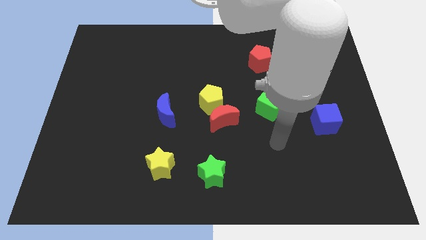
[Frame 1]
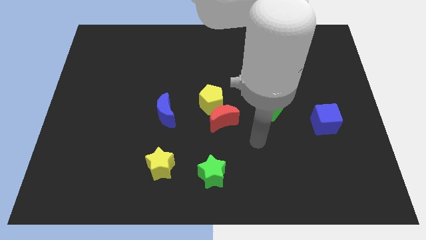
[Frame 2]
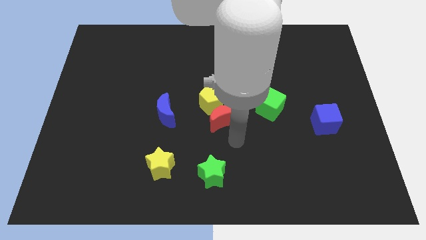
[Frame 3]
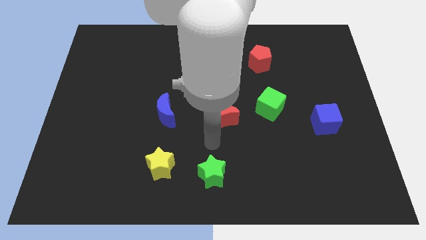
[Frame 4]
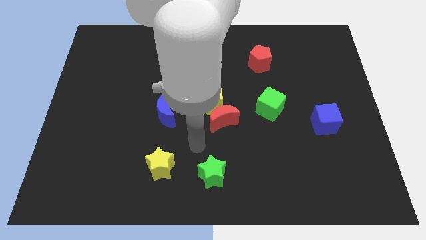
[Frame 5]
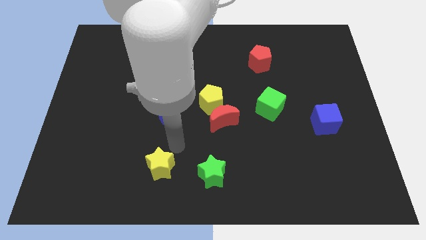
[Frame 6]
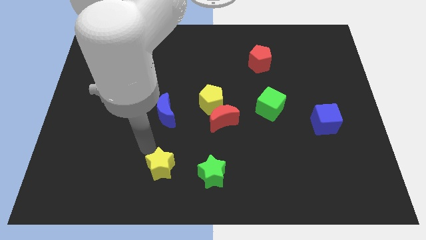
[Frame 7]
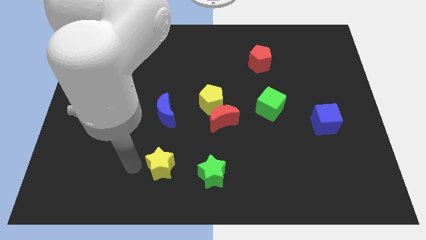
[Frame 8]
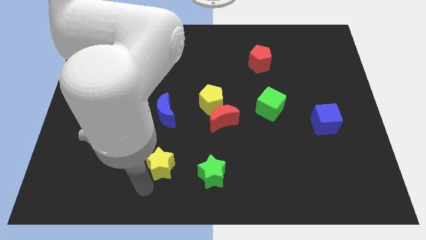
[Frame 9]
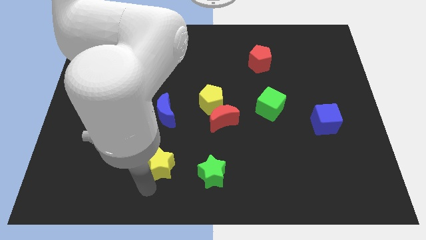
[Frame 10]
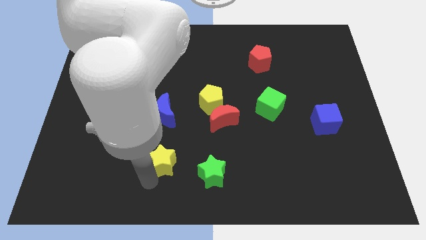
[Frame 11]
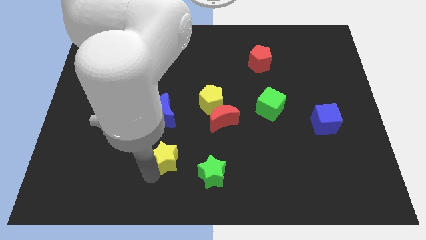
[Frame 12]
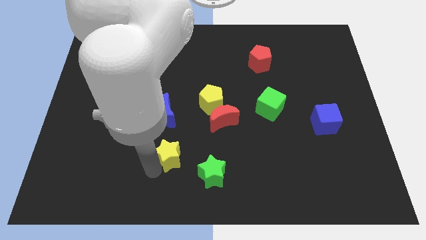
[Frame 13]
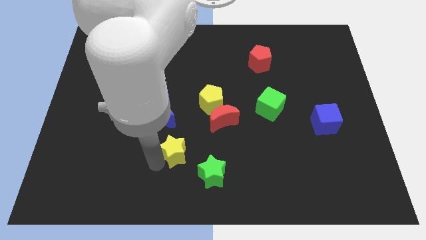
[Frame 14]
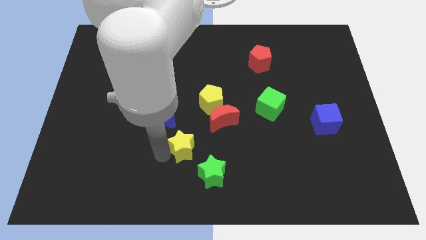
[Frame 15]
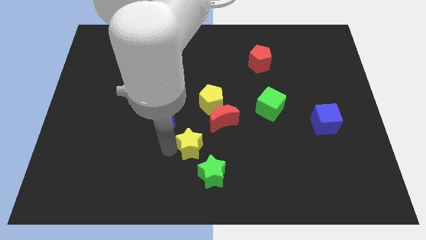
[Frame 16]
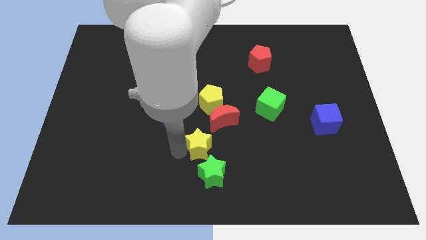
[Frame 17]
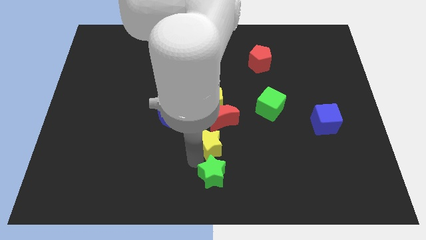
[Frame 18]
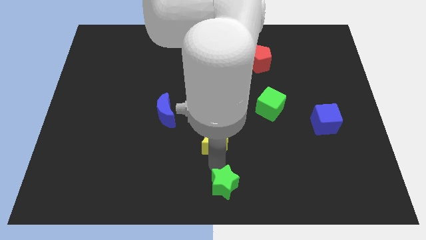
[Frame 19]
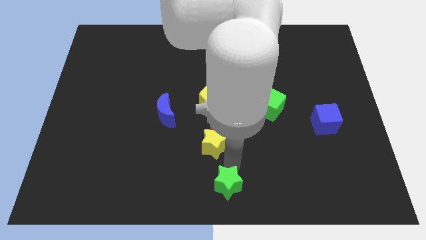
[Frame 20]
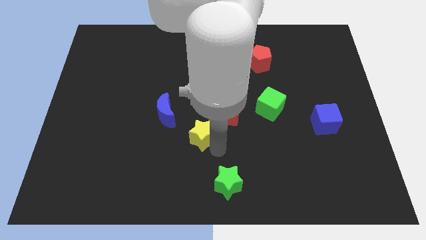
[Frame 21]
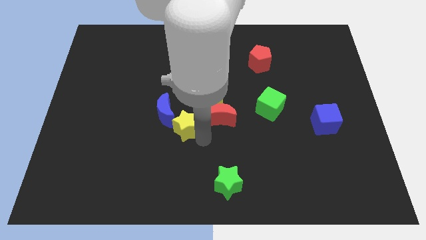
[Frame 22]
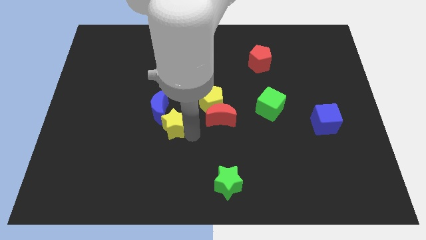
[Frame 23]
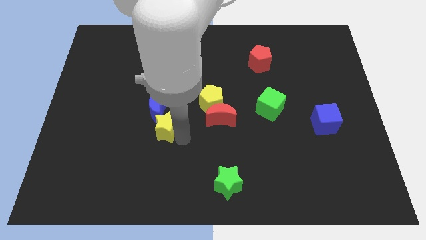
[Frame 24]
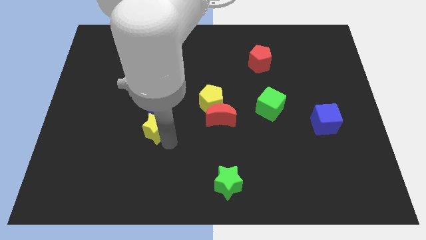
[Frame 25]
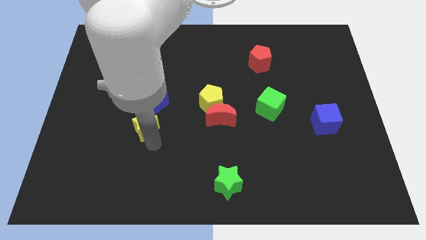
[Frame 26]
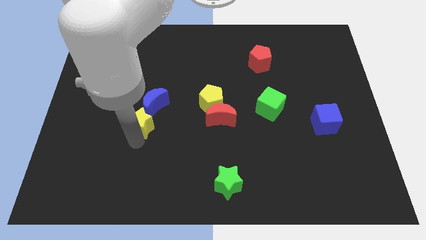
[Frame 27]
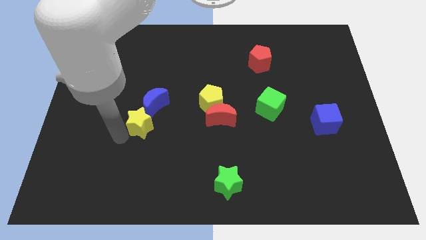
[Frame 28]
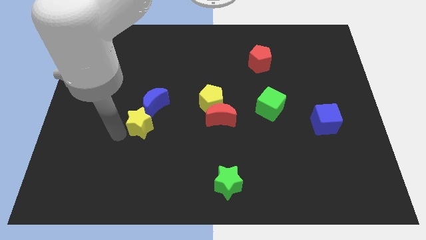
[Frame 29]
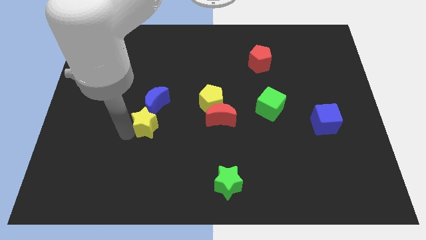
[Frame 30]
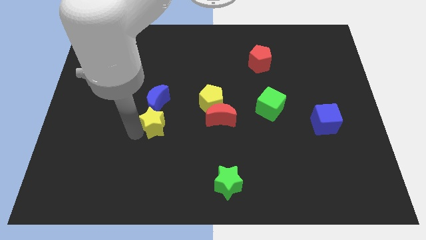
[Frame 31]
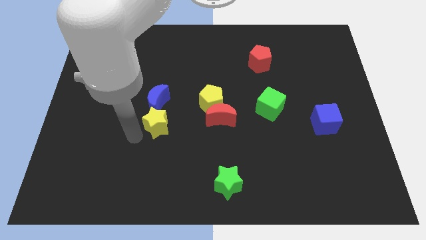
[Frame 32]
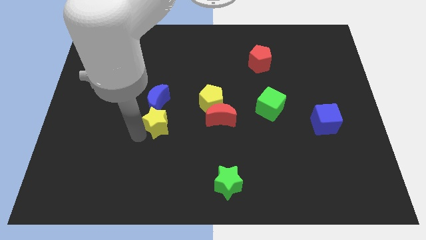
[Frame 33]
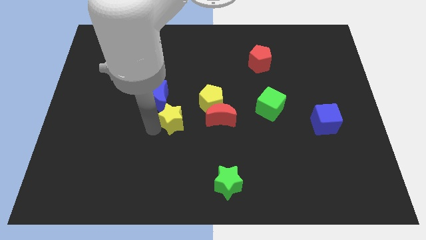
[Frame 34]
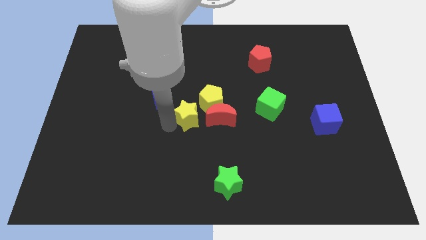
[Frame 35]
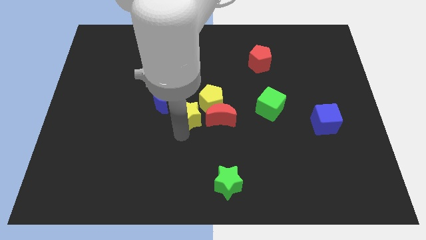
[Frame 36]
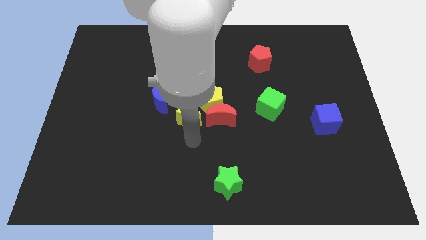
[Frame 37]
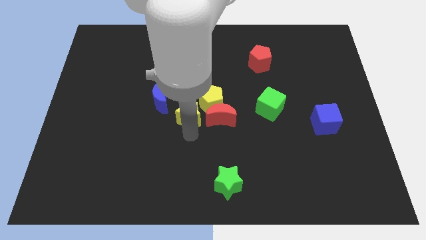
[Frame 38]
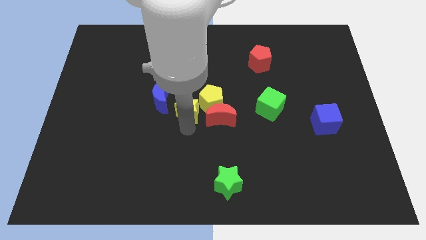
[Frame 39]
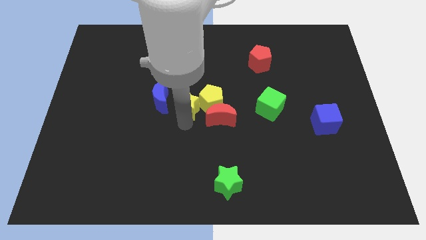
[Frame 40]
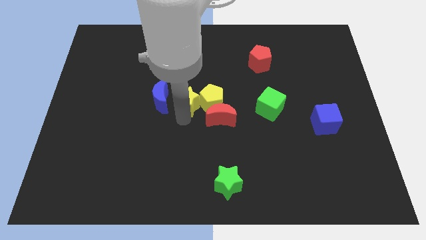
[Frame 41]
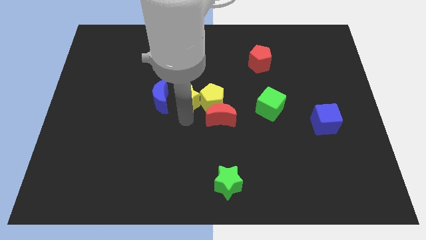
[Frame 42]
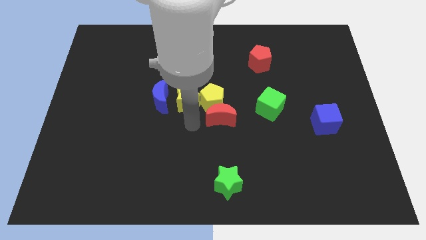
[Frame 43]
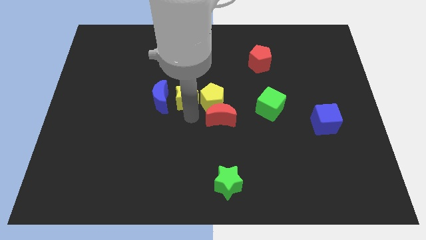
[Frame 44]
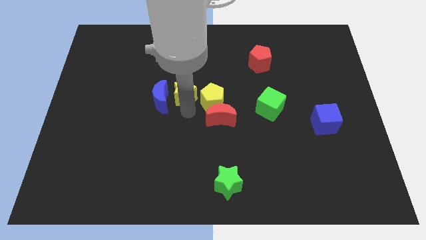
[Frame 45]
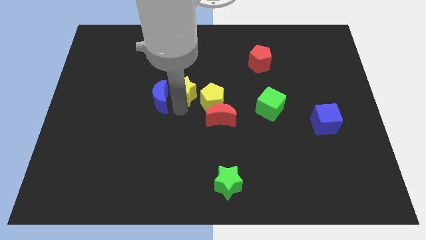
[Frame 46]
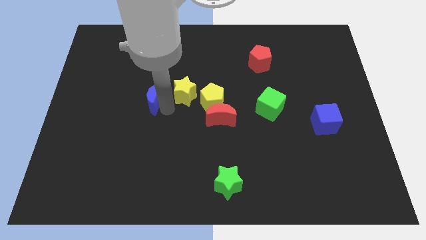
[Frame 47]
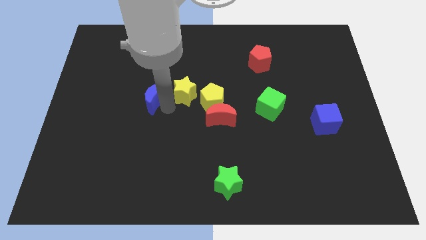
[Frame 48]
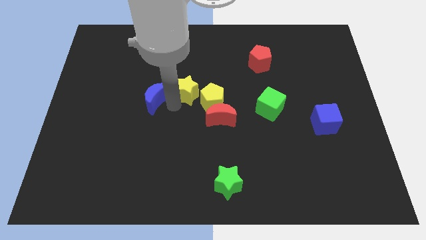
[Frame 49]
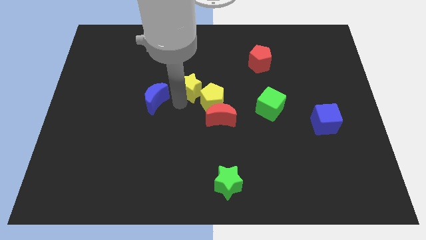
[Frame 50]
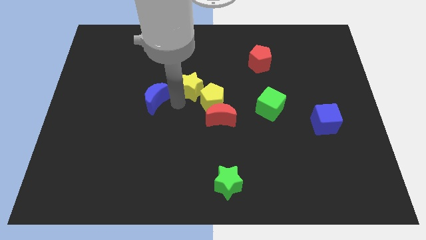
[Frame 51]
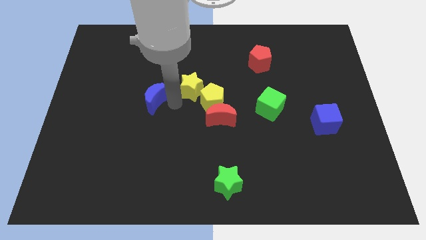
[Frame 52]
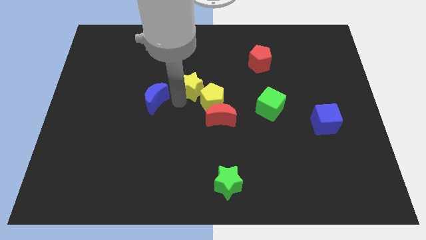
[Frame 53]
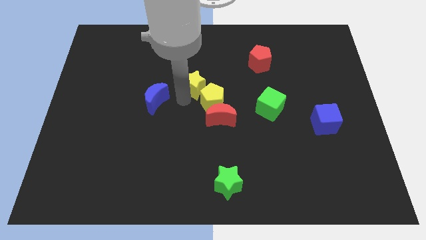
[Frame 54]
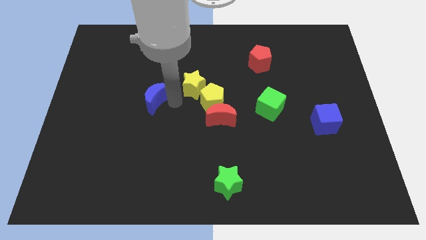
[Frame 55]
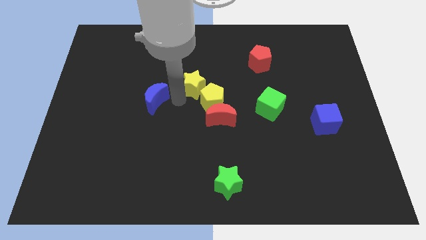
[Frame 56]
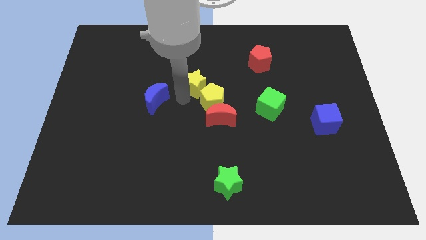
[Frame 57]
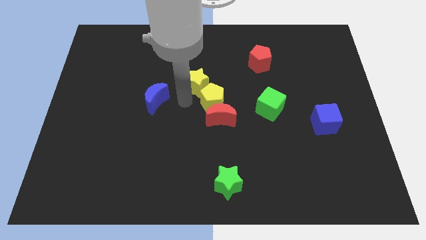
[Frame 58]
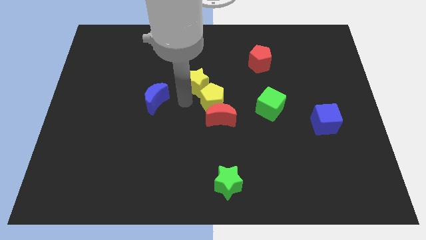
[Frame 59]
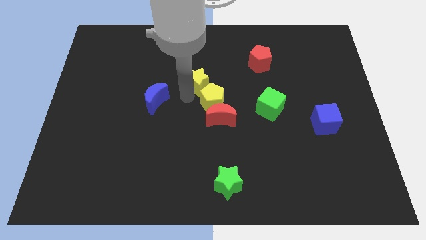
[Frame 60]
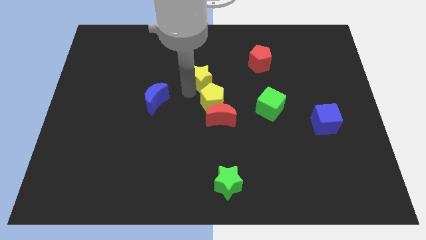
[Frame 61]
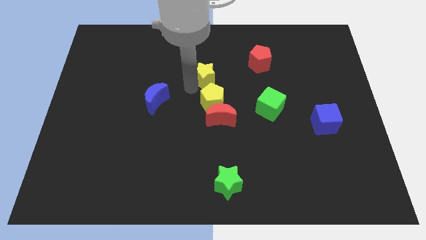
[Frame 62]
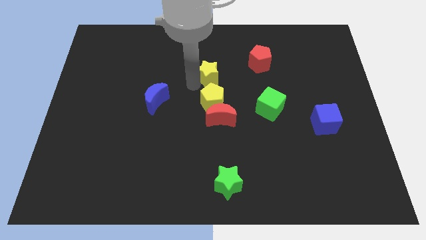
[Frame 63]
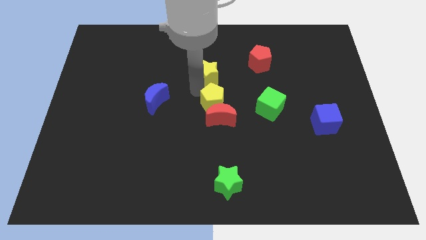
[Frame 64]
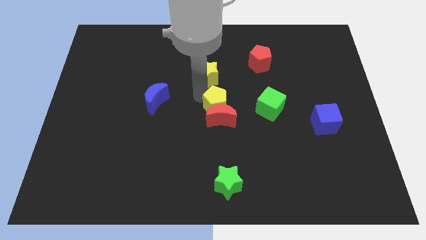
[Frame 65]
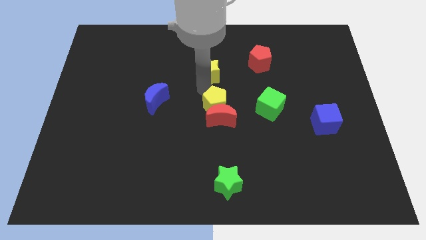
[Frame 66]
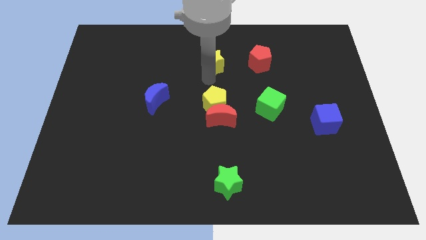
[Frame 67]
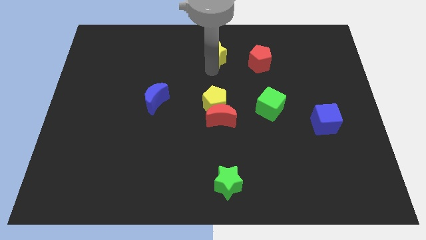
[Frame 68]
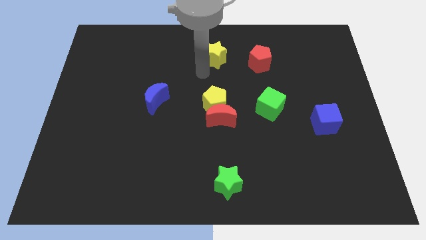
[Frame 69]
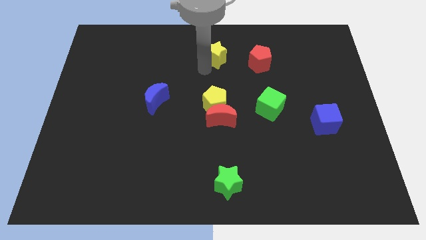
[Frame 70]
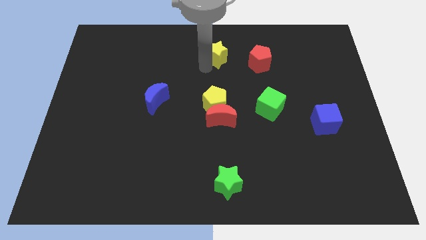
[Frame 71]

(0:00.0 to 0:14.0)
move the yellow star to the towards your base

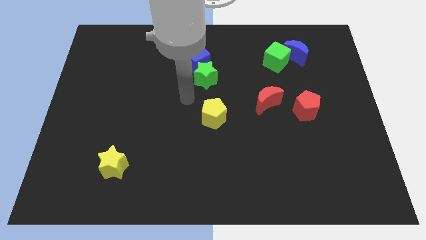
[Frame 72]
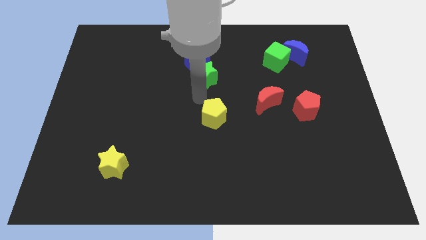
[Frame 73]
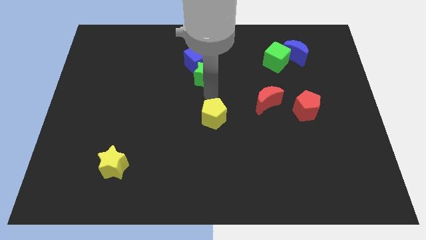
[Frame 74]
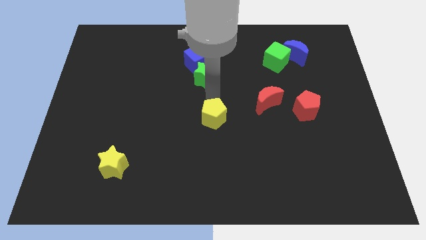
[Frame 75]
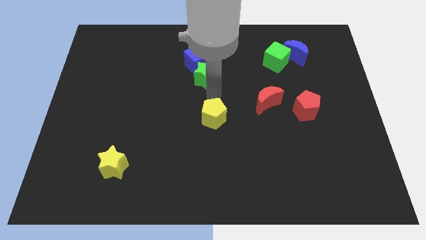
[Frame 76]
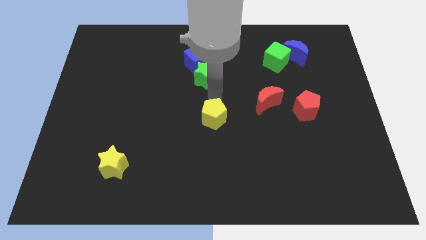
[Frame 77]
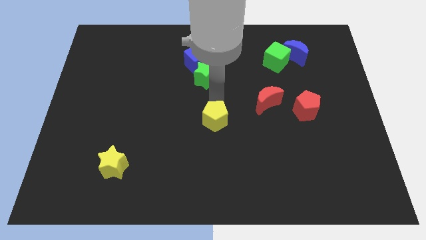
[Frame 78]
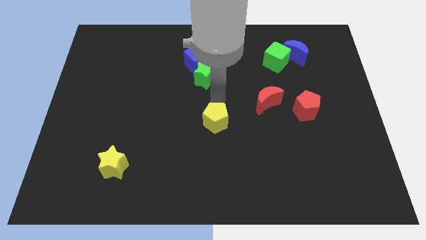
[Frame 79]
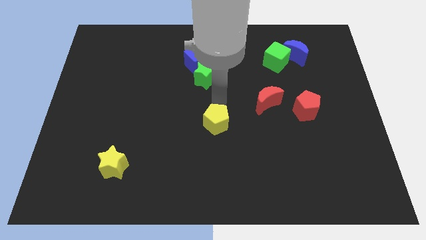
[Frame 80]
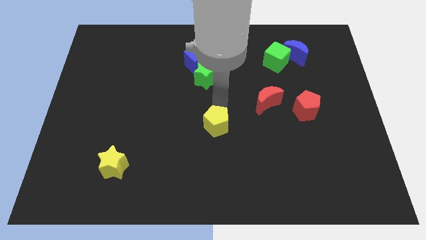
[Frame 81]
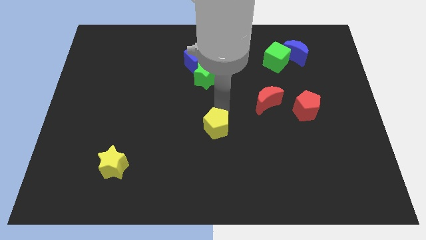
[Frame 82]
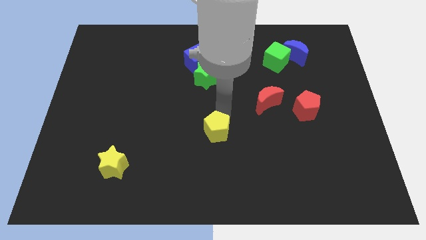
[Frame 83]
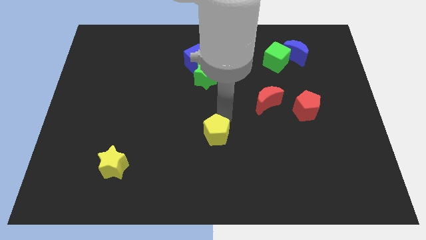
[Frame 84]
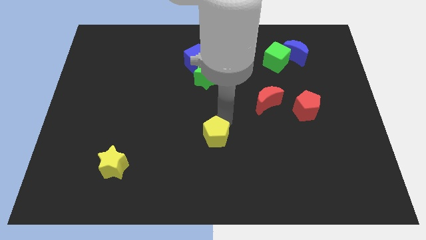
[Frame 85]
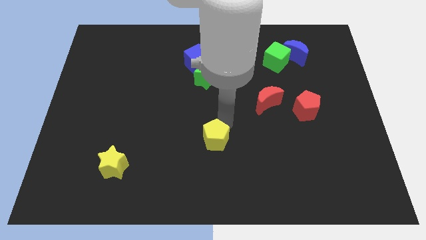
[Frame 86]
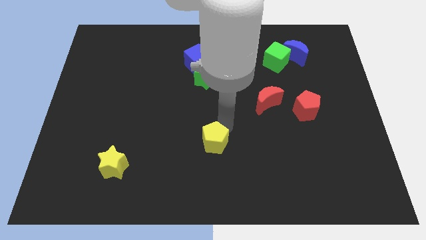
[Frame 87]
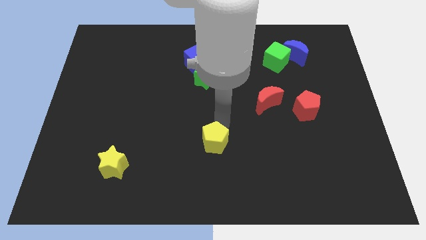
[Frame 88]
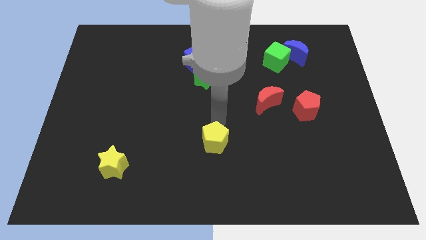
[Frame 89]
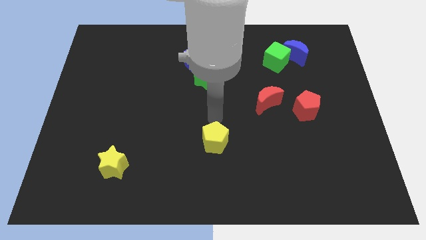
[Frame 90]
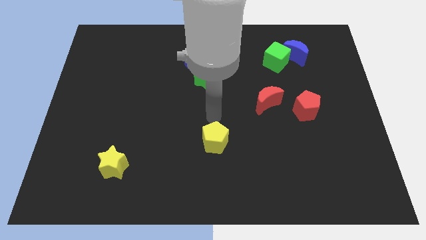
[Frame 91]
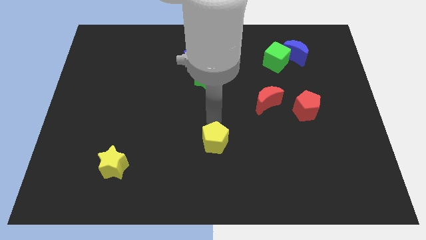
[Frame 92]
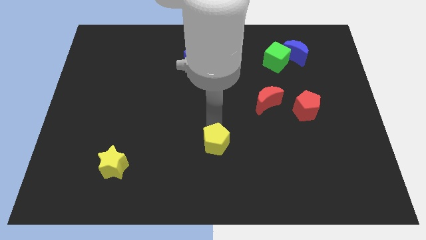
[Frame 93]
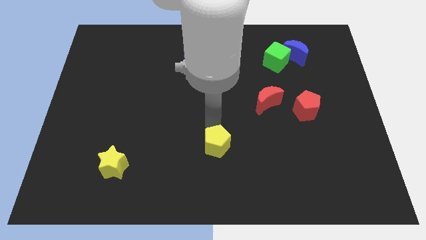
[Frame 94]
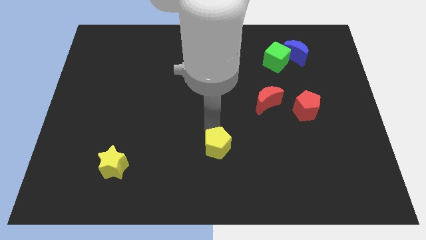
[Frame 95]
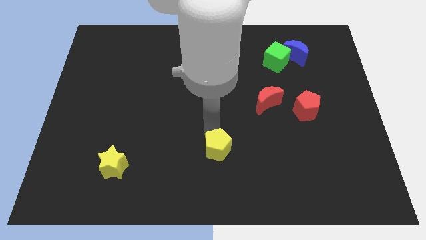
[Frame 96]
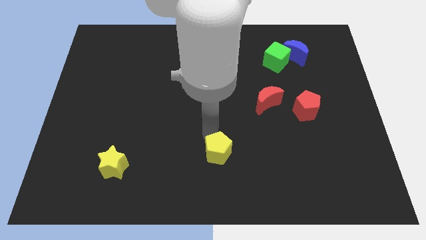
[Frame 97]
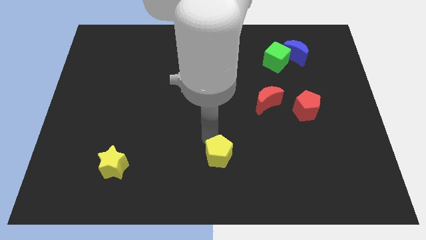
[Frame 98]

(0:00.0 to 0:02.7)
push the yellow pentagon to the bottom
